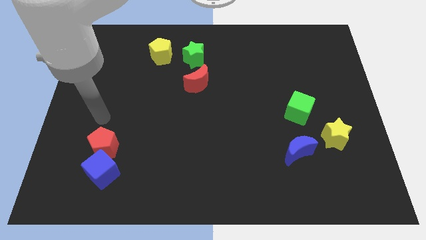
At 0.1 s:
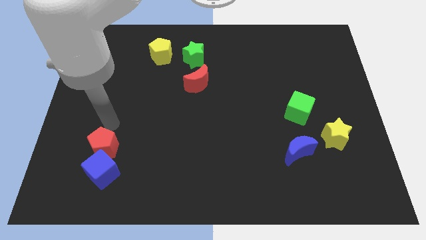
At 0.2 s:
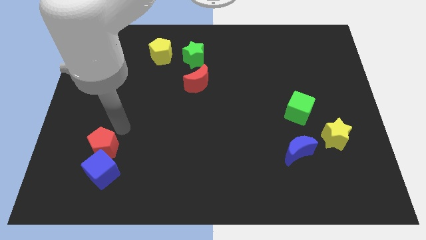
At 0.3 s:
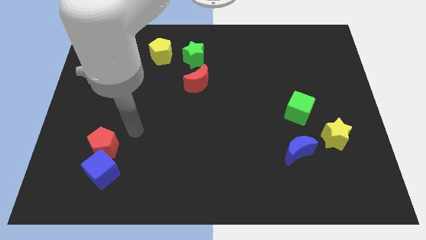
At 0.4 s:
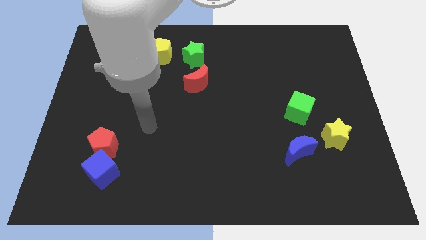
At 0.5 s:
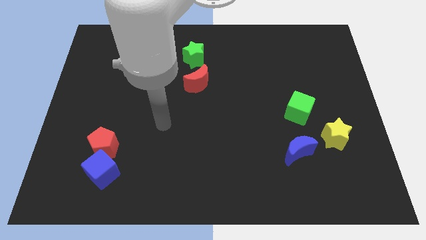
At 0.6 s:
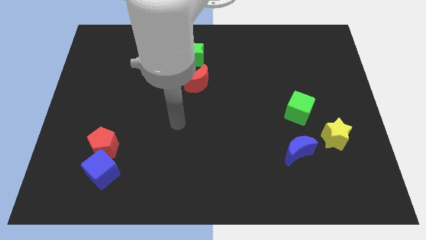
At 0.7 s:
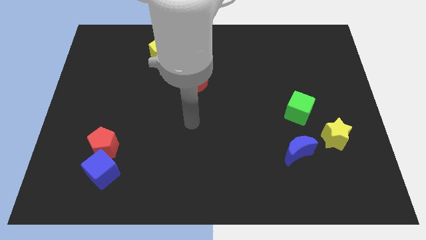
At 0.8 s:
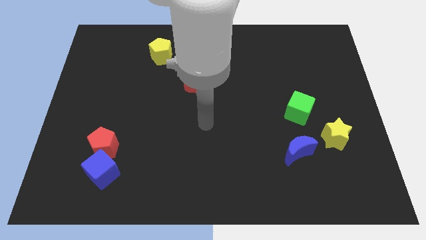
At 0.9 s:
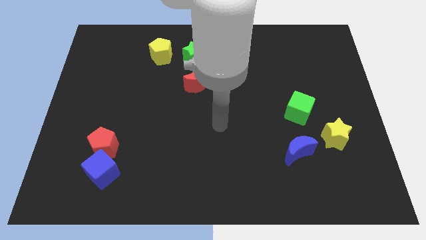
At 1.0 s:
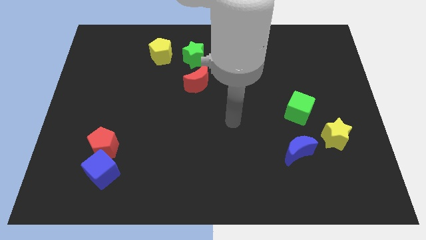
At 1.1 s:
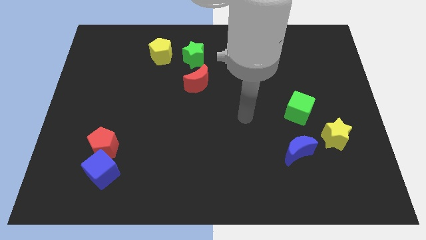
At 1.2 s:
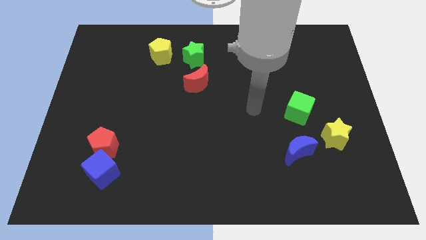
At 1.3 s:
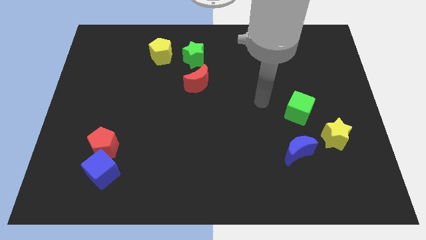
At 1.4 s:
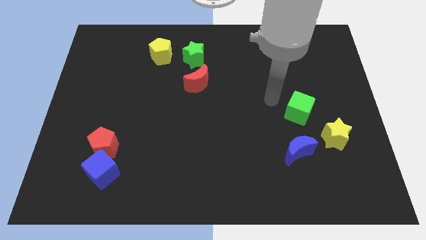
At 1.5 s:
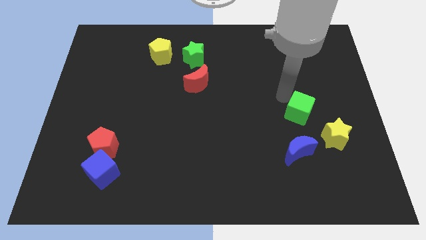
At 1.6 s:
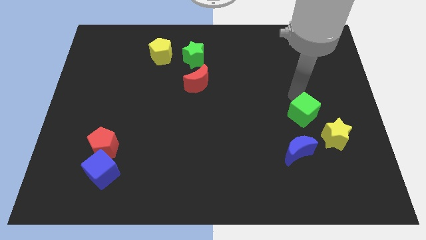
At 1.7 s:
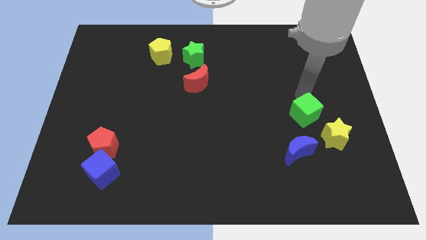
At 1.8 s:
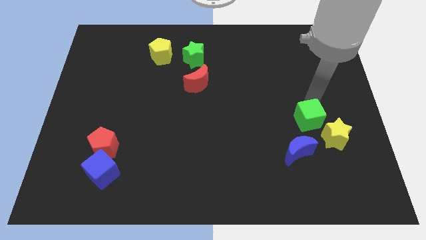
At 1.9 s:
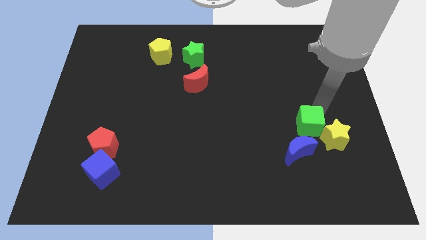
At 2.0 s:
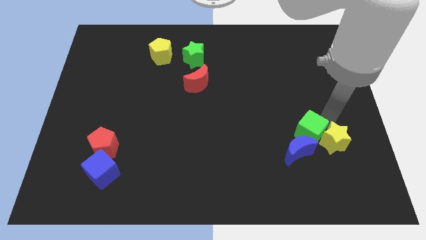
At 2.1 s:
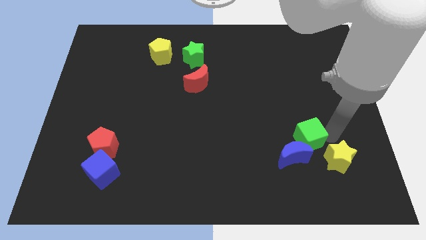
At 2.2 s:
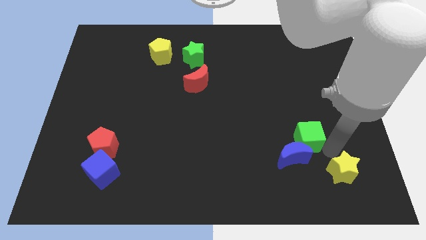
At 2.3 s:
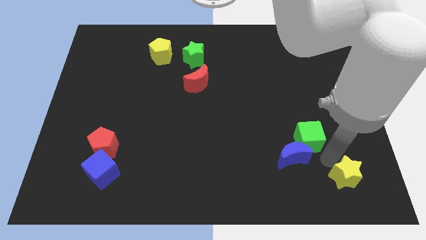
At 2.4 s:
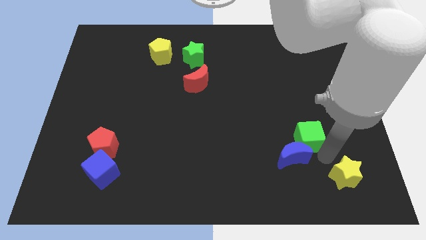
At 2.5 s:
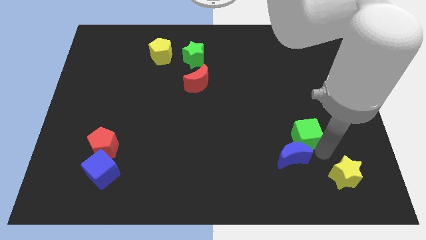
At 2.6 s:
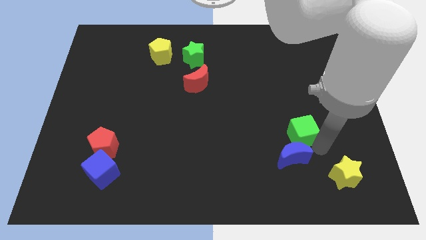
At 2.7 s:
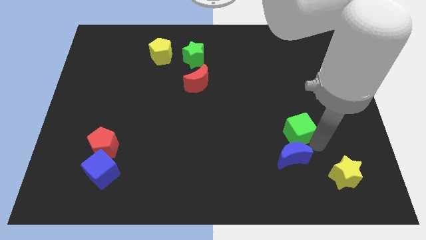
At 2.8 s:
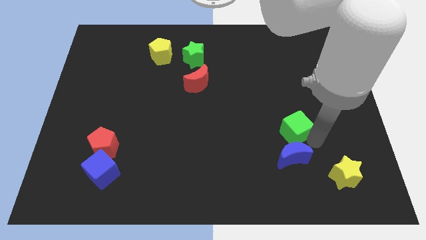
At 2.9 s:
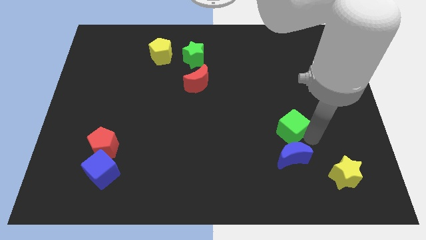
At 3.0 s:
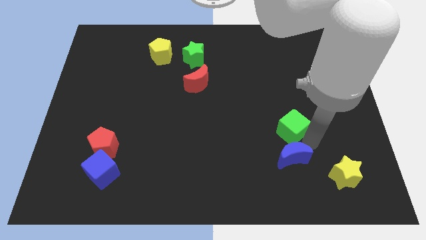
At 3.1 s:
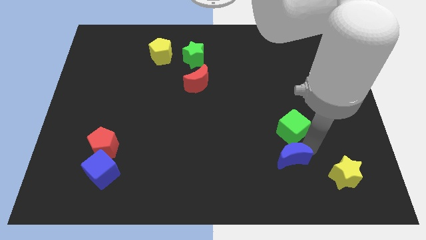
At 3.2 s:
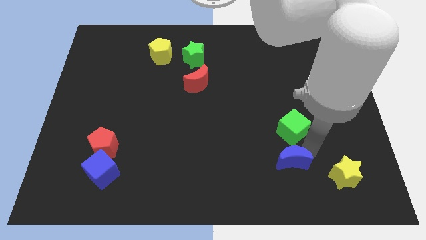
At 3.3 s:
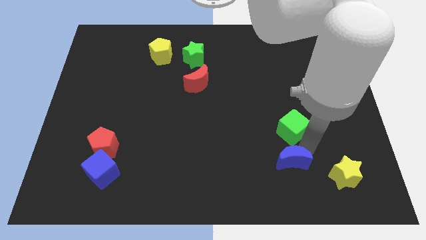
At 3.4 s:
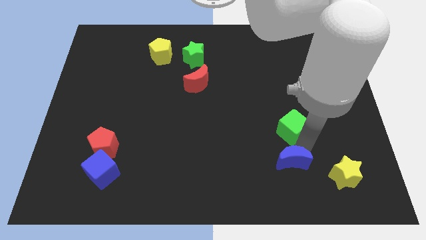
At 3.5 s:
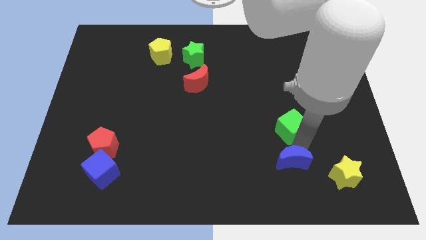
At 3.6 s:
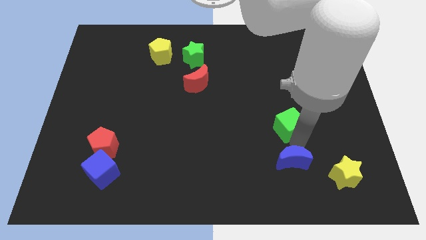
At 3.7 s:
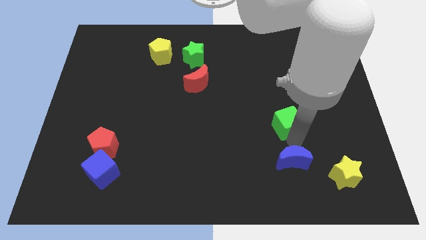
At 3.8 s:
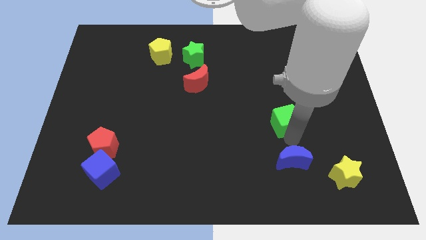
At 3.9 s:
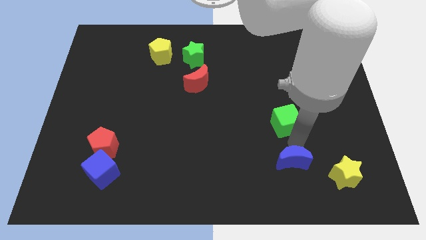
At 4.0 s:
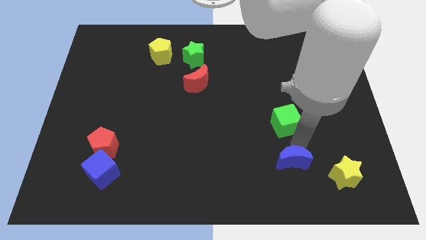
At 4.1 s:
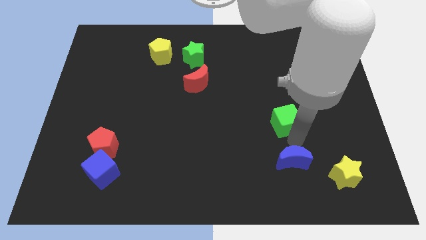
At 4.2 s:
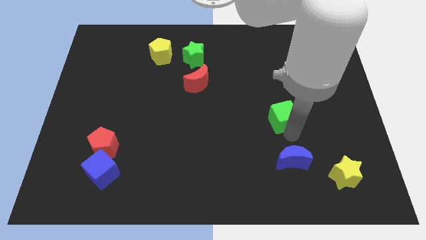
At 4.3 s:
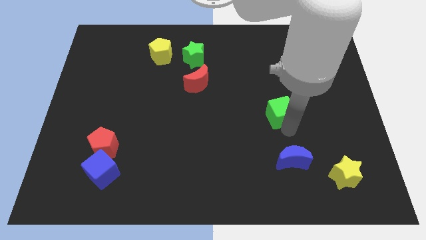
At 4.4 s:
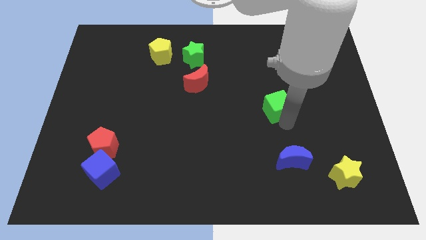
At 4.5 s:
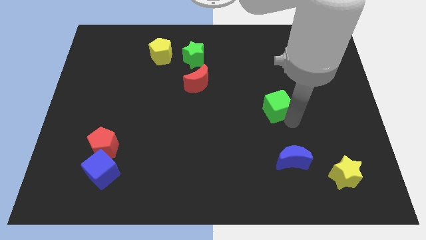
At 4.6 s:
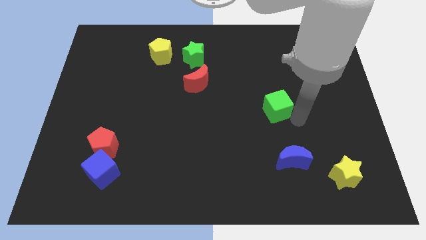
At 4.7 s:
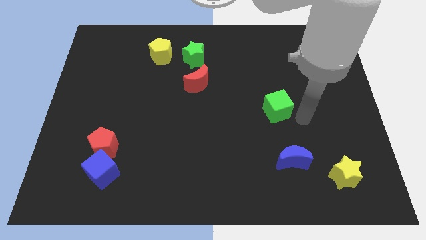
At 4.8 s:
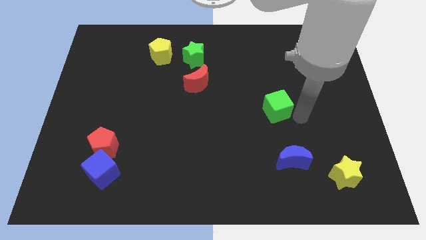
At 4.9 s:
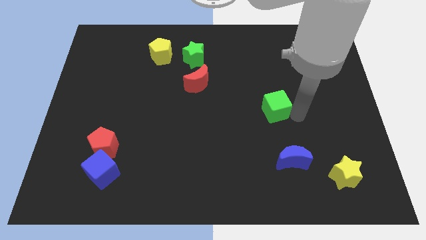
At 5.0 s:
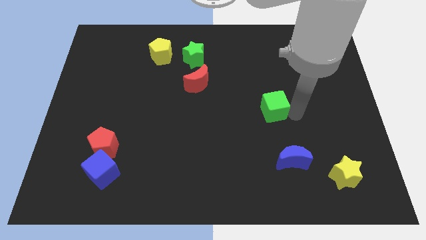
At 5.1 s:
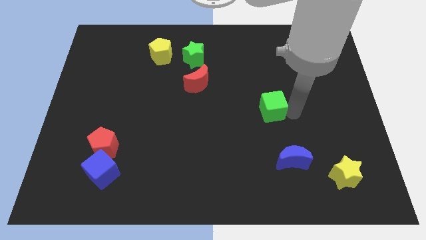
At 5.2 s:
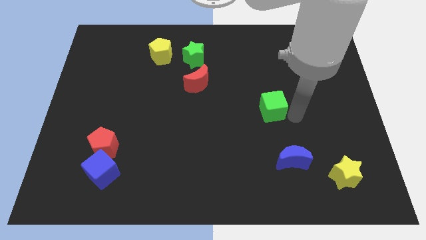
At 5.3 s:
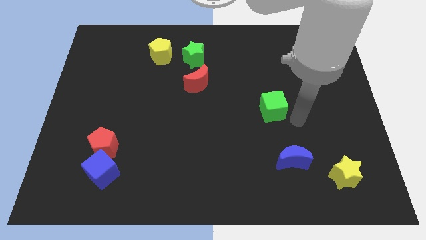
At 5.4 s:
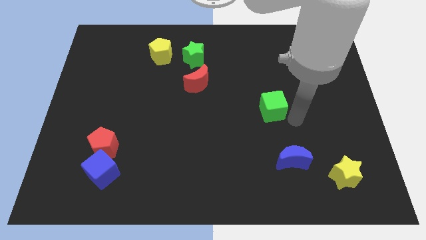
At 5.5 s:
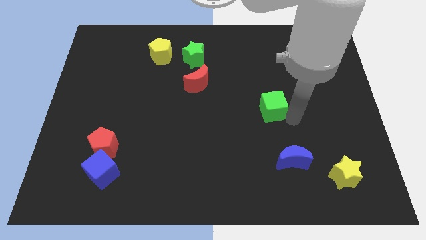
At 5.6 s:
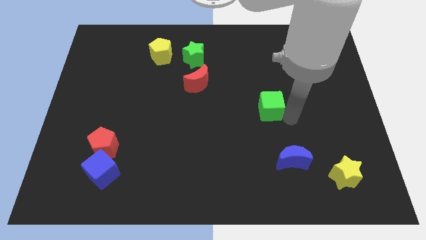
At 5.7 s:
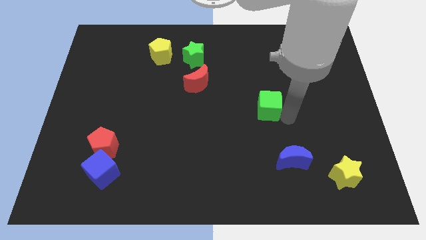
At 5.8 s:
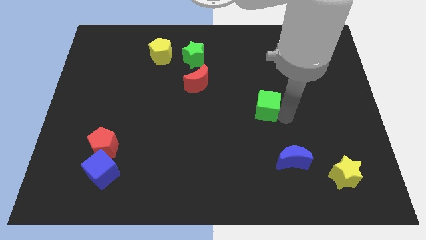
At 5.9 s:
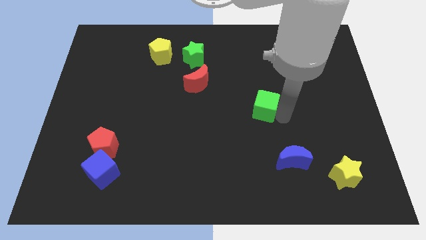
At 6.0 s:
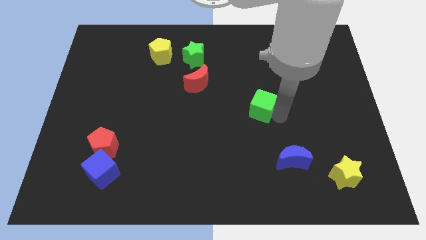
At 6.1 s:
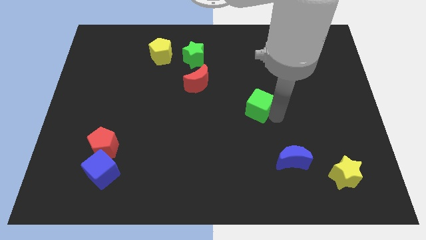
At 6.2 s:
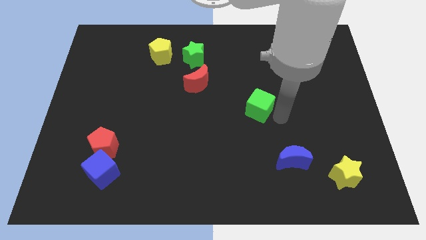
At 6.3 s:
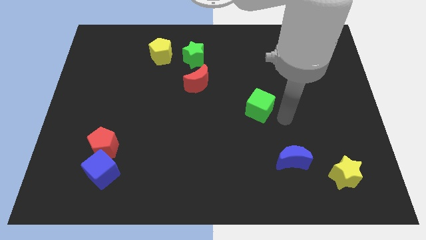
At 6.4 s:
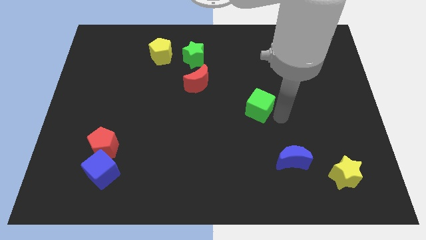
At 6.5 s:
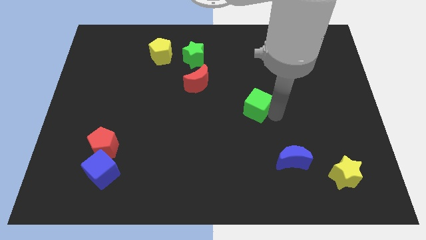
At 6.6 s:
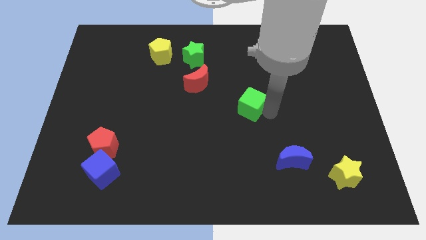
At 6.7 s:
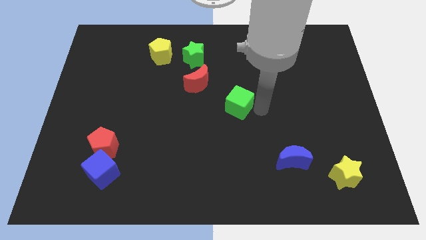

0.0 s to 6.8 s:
slide the green cube to the bottom right of the red moon
